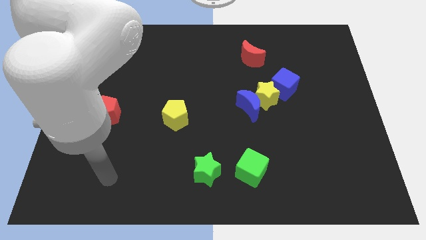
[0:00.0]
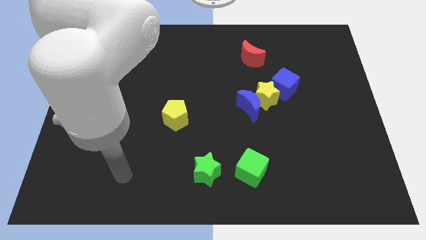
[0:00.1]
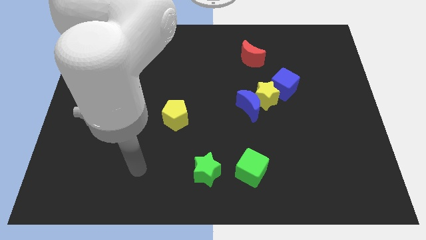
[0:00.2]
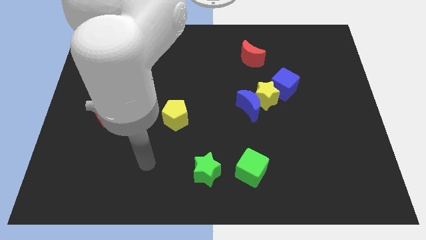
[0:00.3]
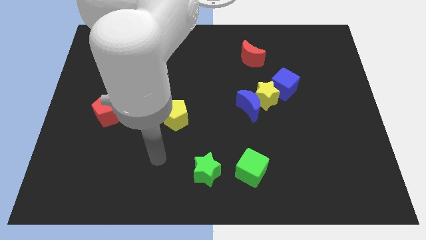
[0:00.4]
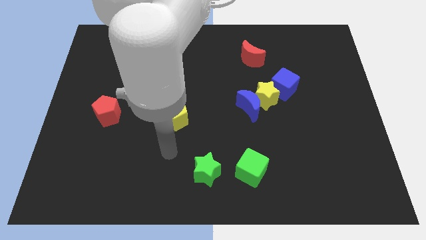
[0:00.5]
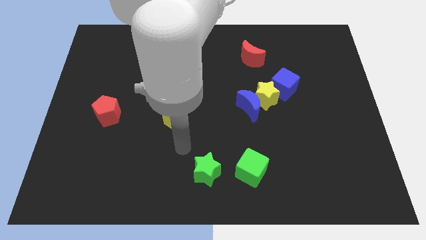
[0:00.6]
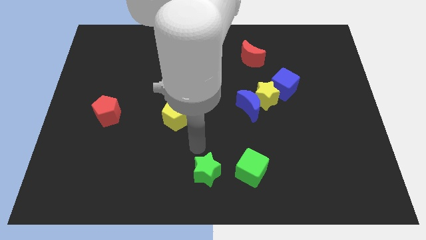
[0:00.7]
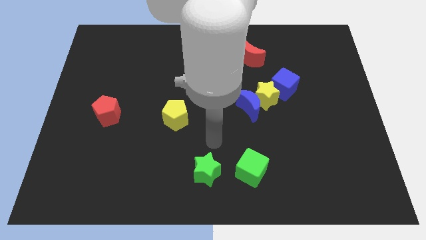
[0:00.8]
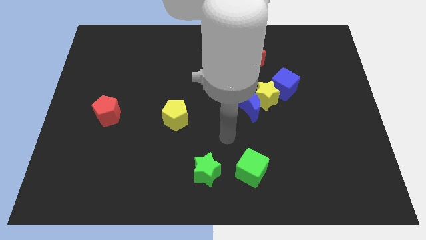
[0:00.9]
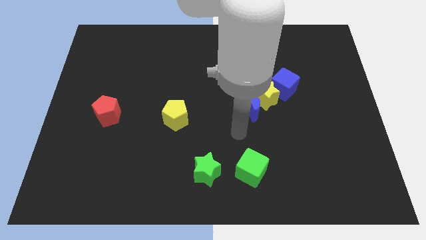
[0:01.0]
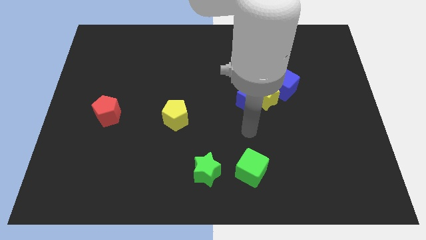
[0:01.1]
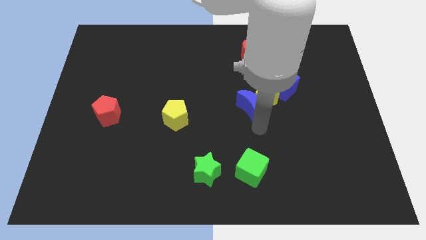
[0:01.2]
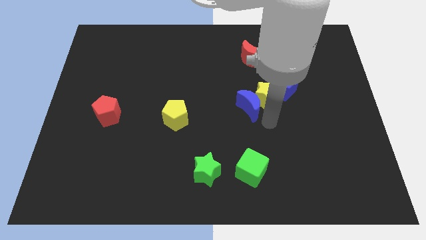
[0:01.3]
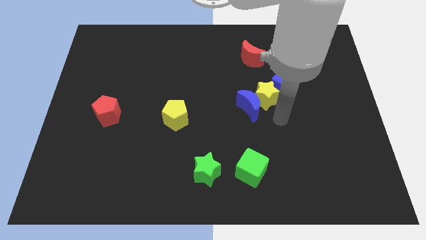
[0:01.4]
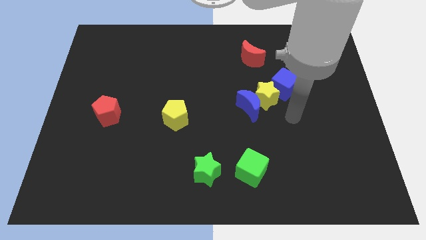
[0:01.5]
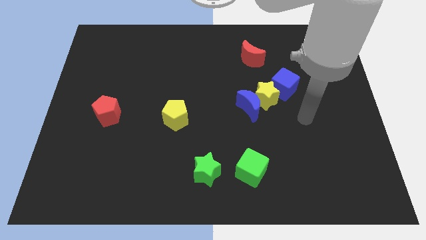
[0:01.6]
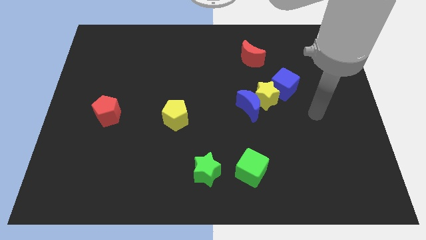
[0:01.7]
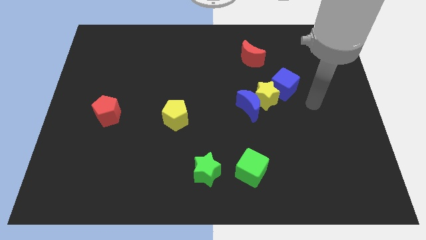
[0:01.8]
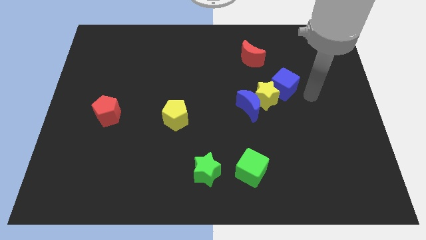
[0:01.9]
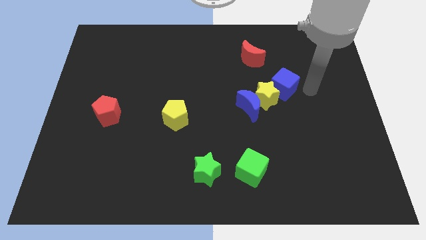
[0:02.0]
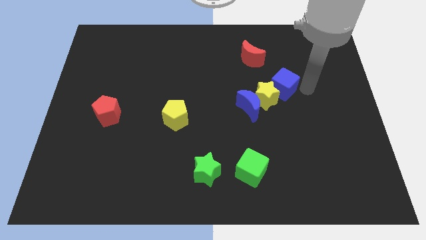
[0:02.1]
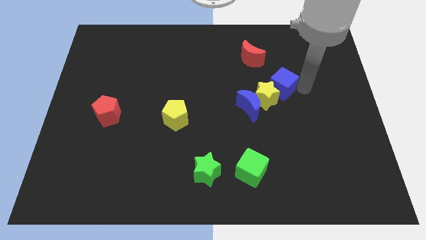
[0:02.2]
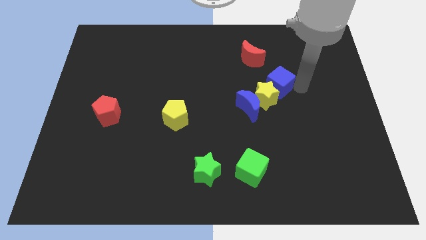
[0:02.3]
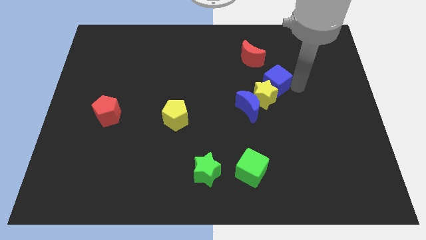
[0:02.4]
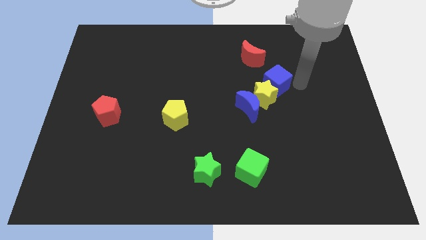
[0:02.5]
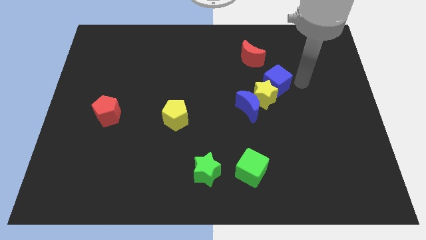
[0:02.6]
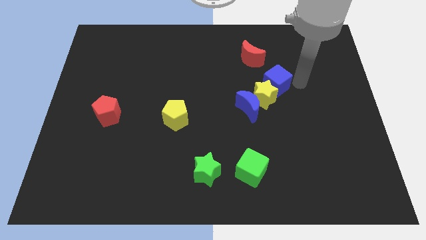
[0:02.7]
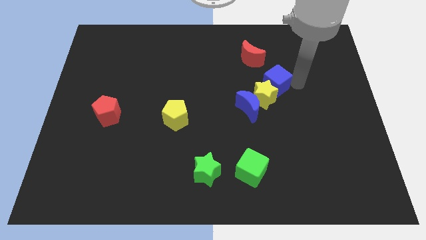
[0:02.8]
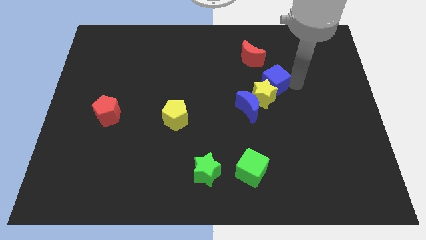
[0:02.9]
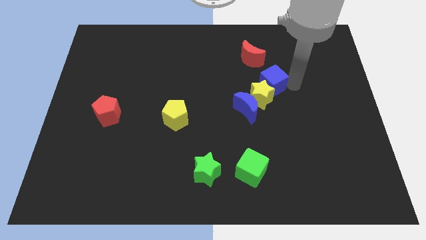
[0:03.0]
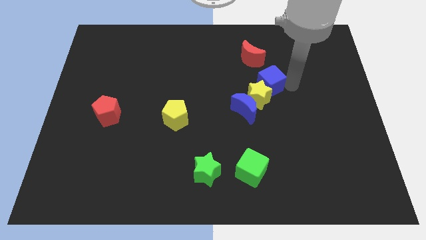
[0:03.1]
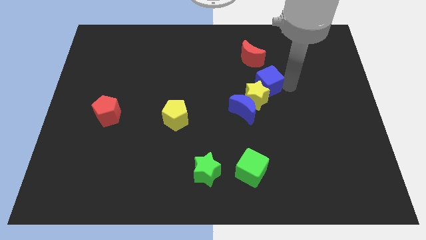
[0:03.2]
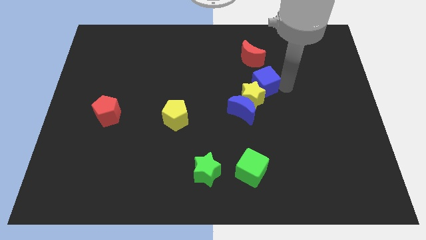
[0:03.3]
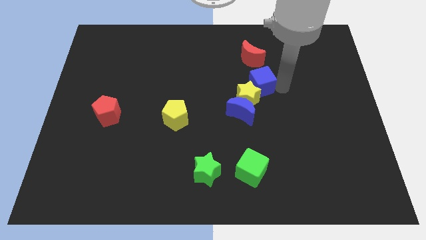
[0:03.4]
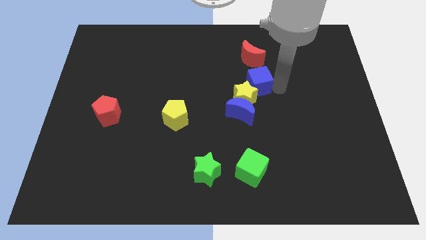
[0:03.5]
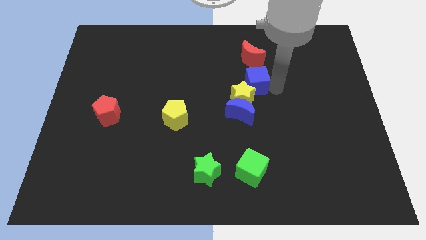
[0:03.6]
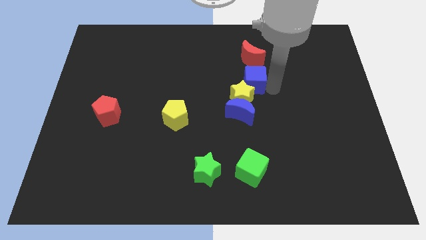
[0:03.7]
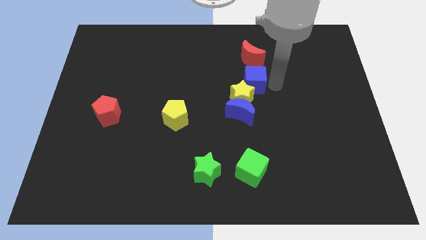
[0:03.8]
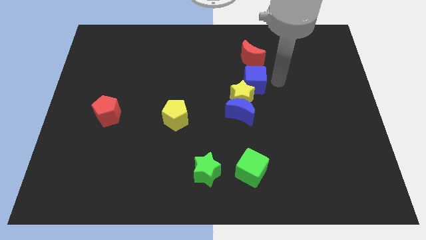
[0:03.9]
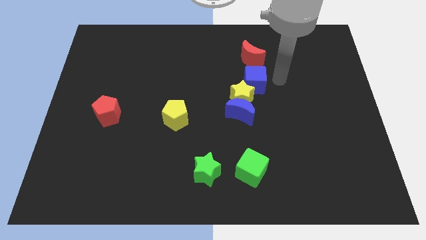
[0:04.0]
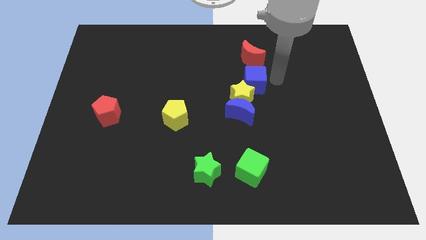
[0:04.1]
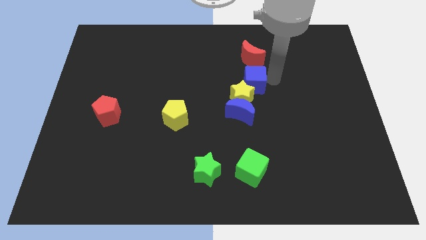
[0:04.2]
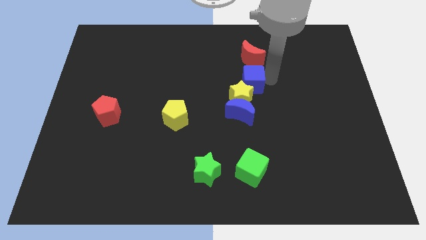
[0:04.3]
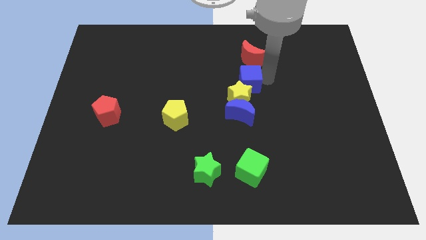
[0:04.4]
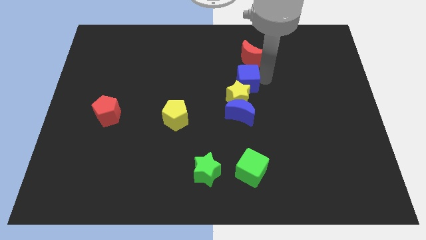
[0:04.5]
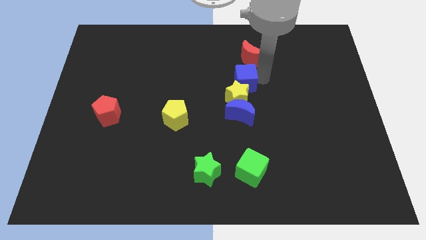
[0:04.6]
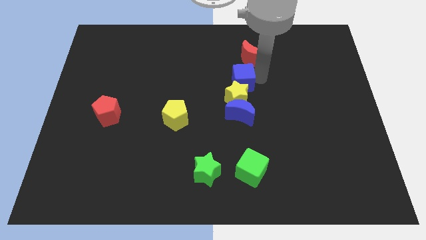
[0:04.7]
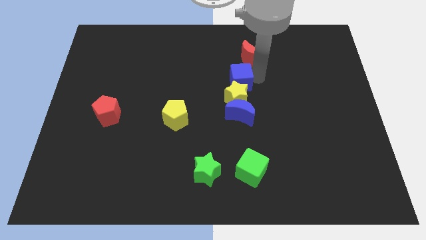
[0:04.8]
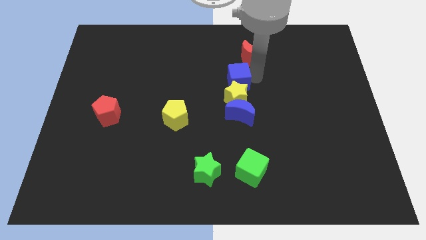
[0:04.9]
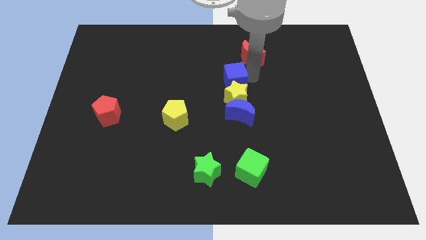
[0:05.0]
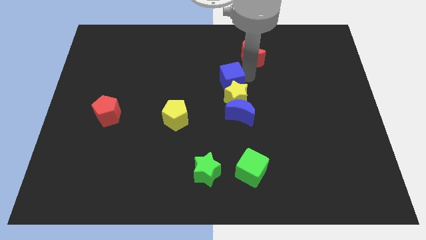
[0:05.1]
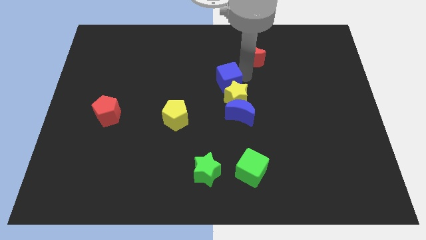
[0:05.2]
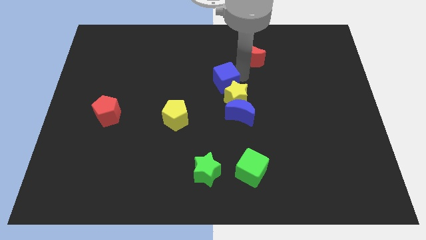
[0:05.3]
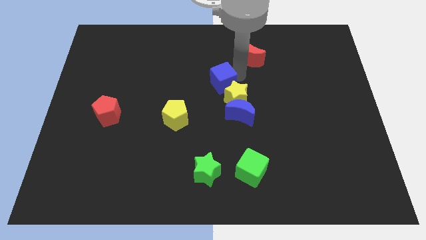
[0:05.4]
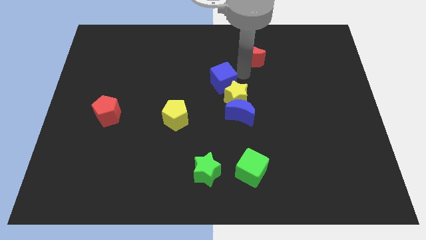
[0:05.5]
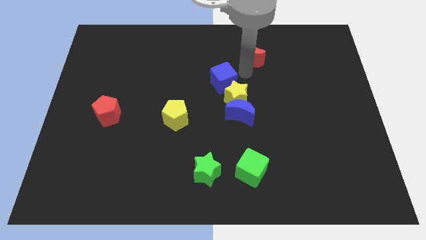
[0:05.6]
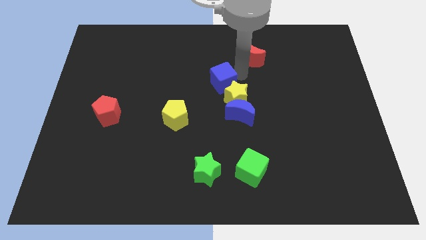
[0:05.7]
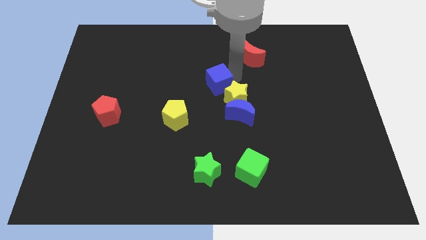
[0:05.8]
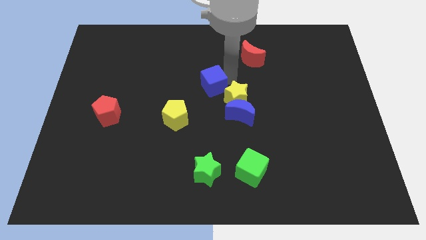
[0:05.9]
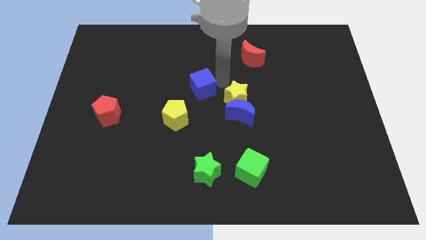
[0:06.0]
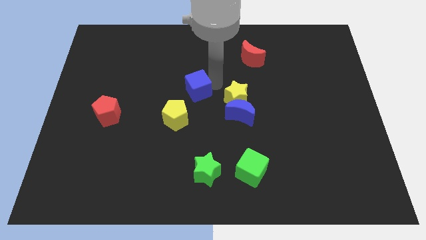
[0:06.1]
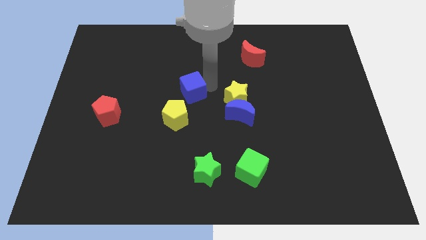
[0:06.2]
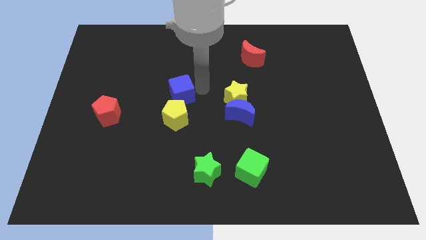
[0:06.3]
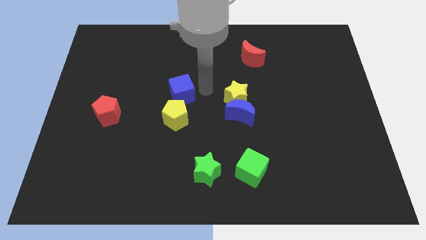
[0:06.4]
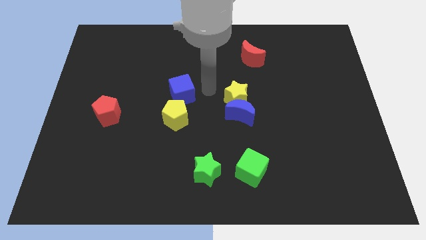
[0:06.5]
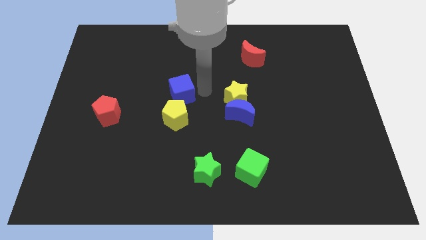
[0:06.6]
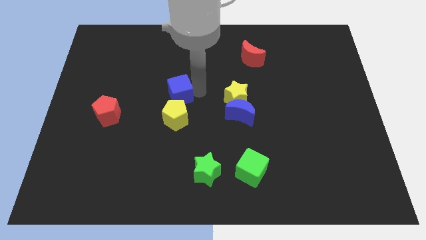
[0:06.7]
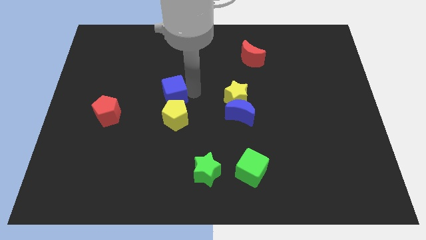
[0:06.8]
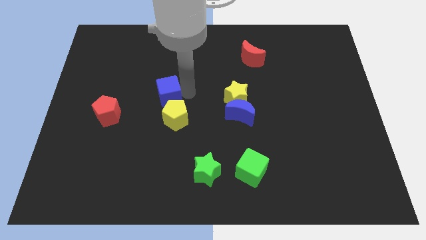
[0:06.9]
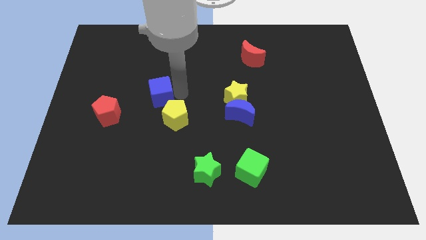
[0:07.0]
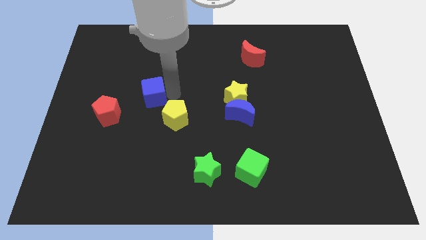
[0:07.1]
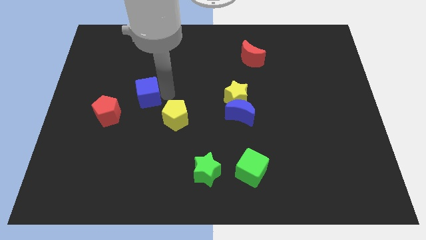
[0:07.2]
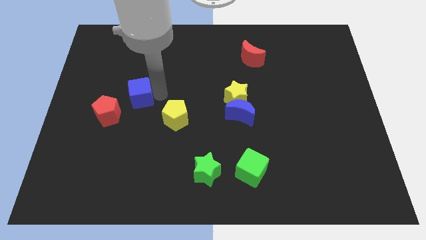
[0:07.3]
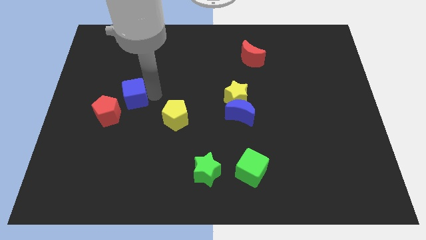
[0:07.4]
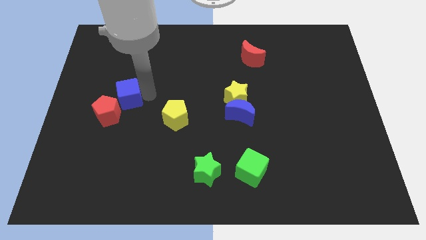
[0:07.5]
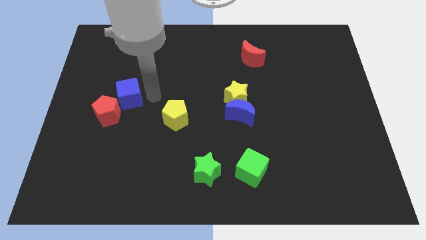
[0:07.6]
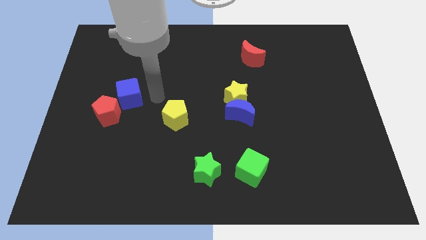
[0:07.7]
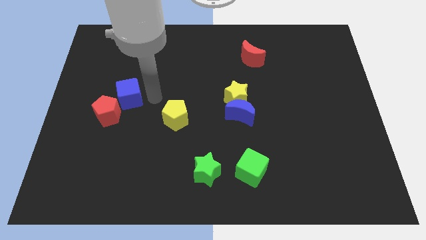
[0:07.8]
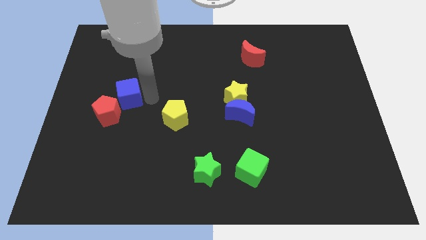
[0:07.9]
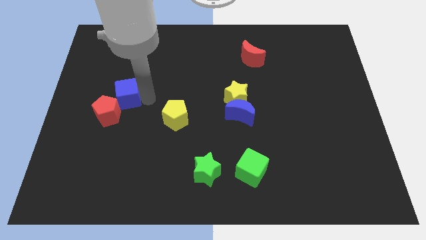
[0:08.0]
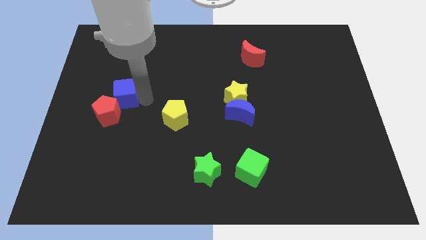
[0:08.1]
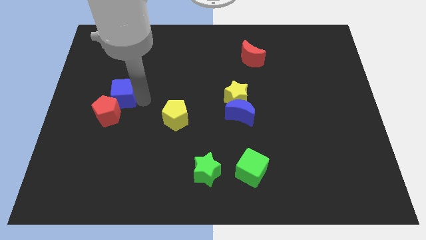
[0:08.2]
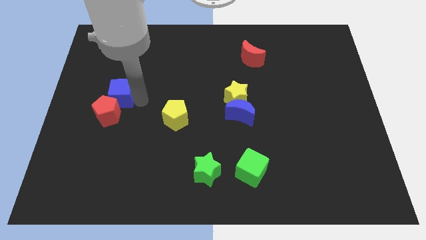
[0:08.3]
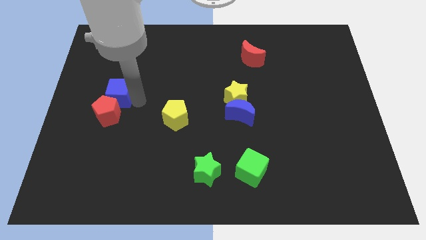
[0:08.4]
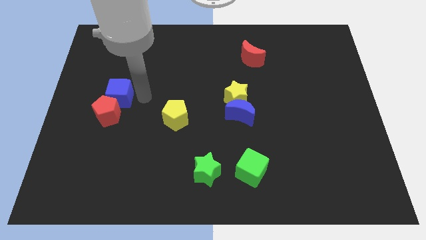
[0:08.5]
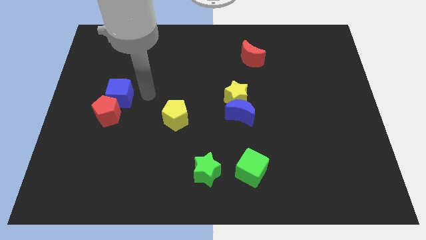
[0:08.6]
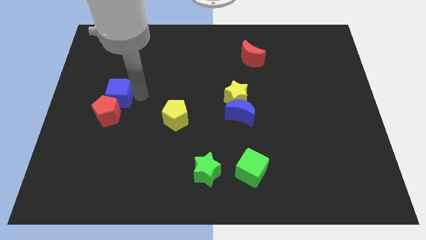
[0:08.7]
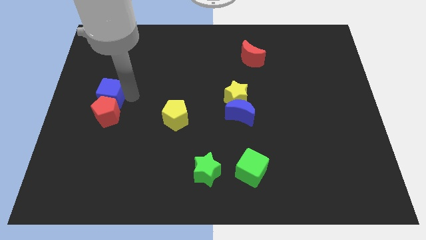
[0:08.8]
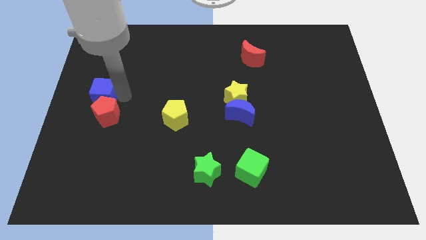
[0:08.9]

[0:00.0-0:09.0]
push the blue cube to the left side of the board
